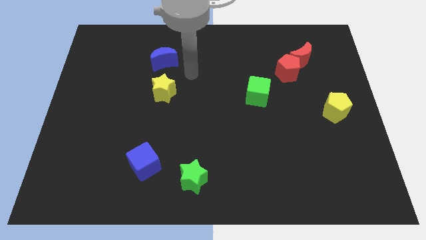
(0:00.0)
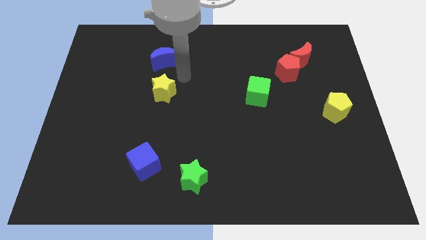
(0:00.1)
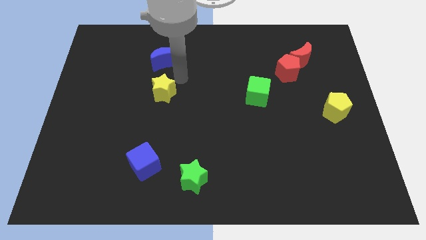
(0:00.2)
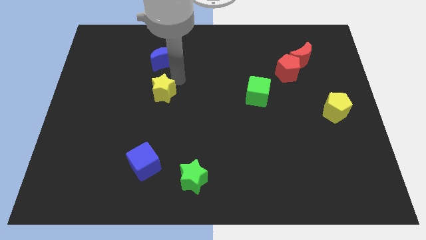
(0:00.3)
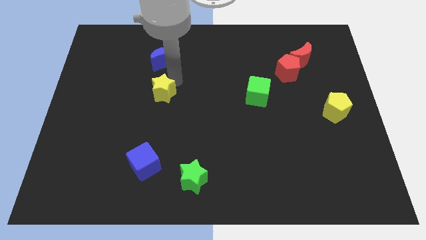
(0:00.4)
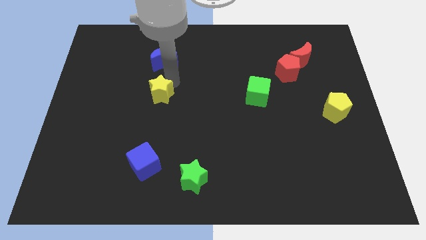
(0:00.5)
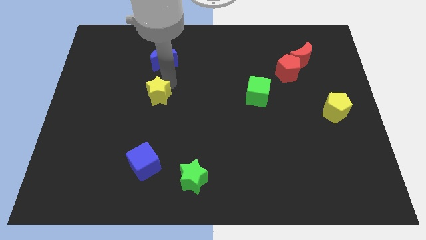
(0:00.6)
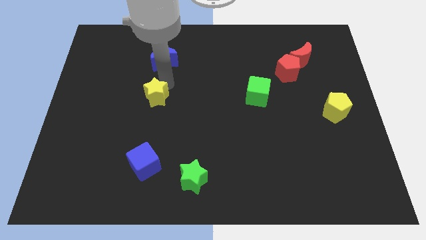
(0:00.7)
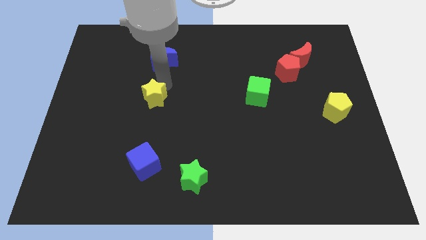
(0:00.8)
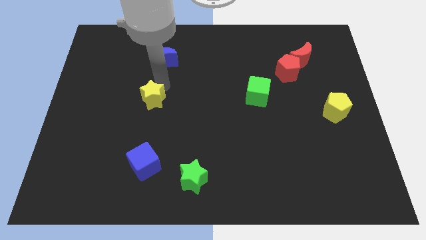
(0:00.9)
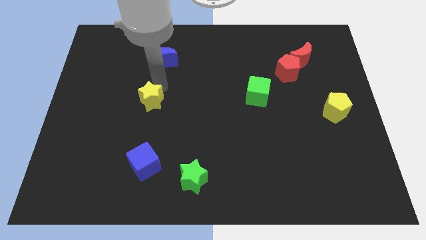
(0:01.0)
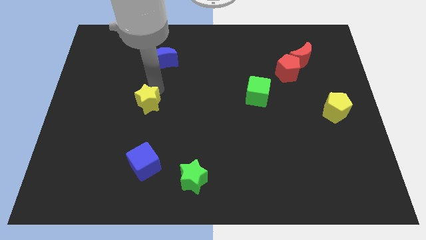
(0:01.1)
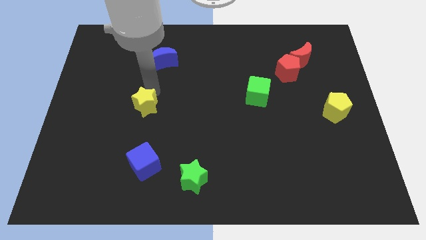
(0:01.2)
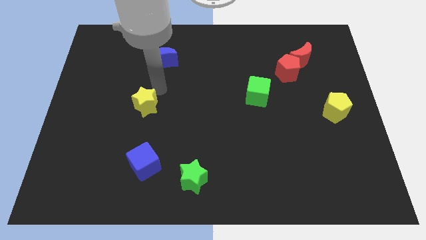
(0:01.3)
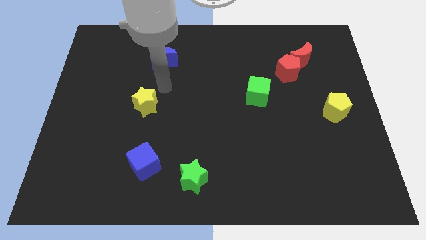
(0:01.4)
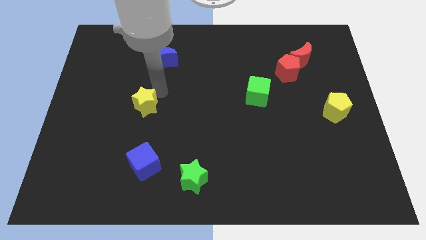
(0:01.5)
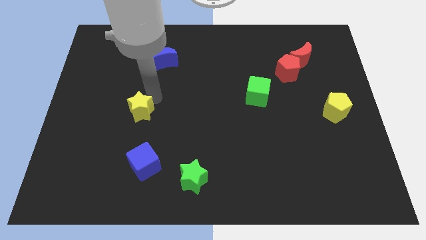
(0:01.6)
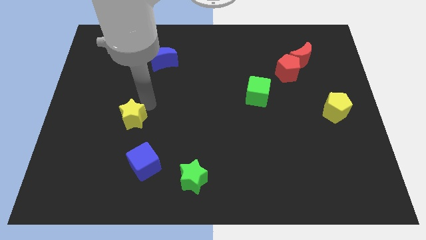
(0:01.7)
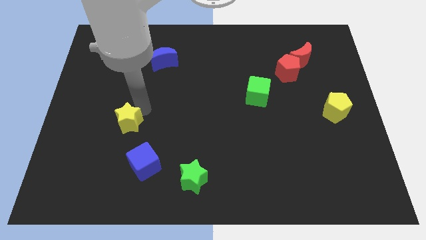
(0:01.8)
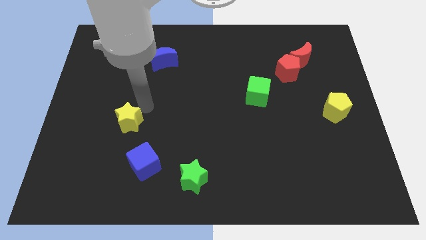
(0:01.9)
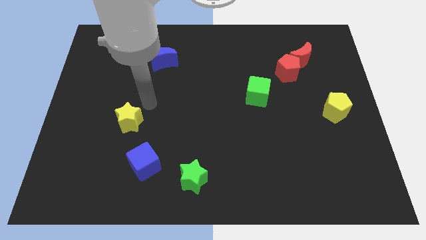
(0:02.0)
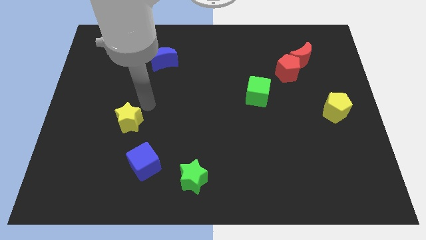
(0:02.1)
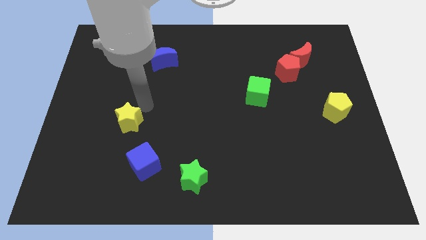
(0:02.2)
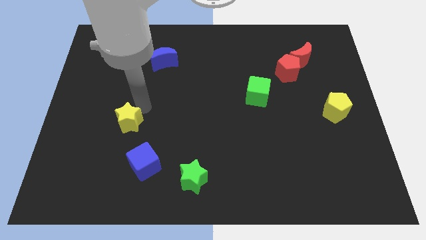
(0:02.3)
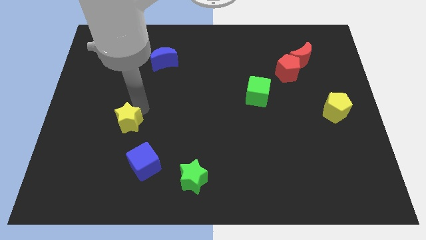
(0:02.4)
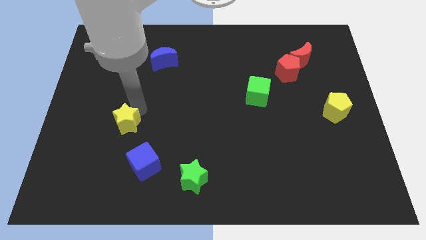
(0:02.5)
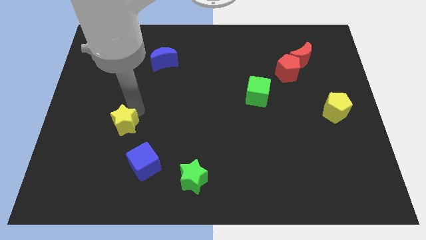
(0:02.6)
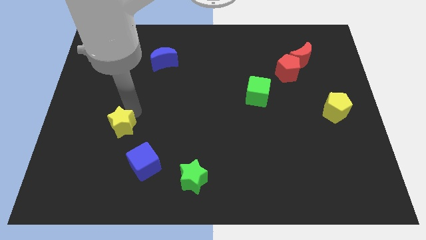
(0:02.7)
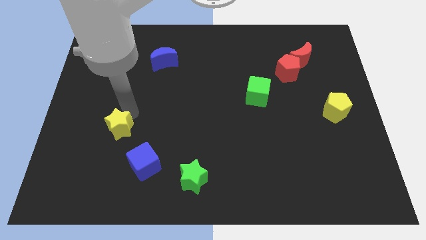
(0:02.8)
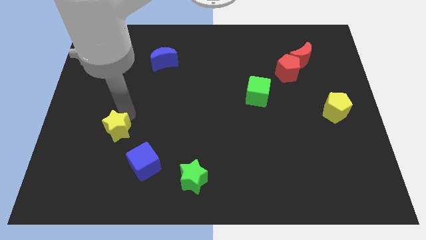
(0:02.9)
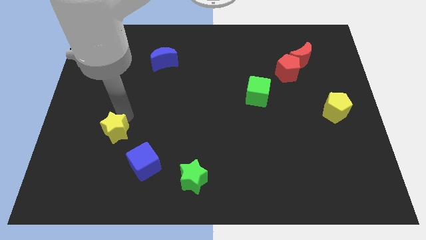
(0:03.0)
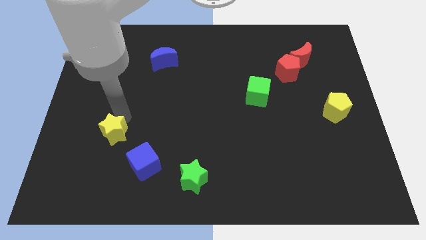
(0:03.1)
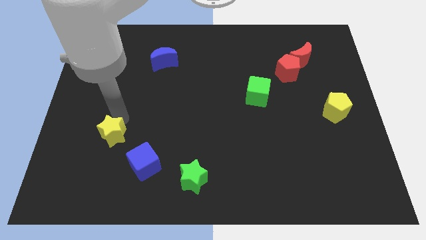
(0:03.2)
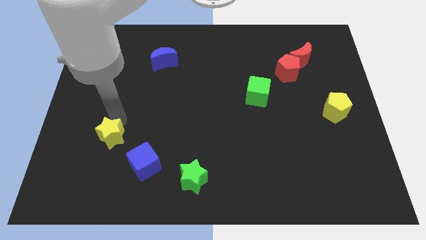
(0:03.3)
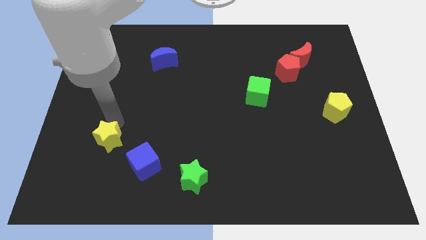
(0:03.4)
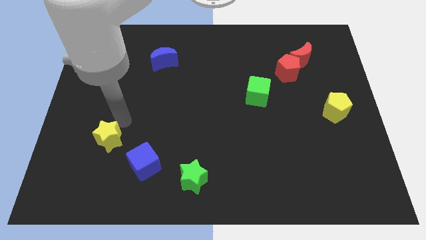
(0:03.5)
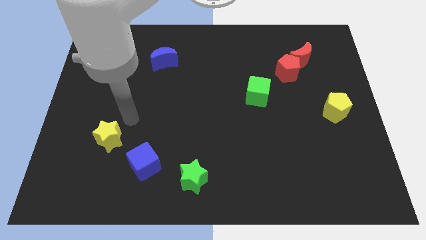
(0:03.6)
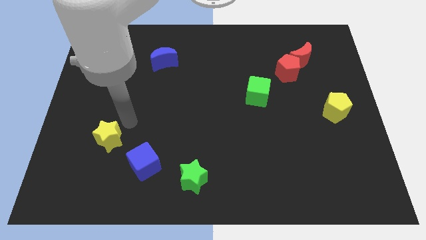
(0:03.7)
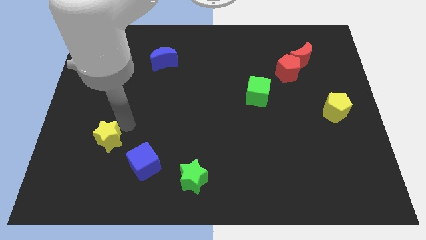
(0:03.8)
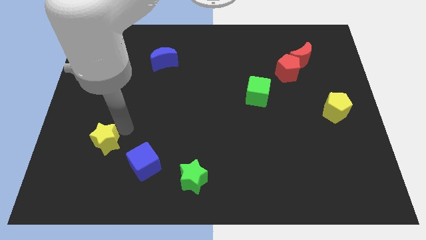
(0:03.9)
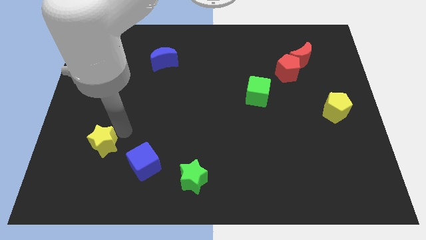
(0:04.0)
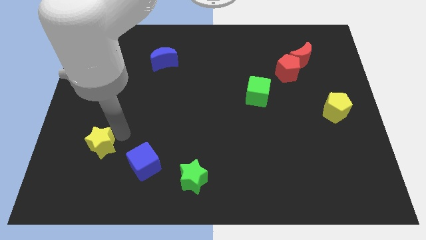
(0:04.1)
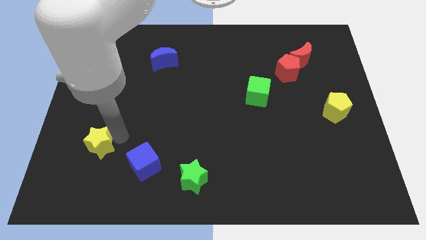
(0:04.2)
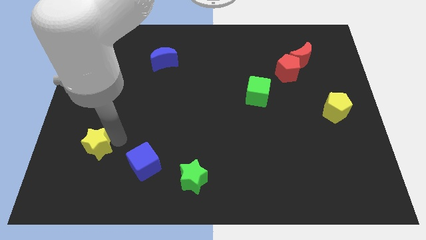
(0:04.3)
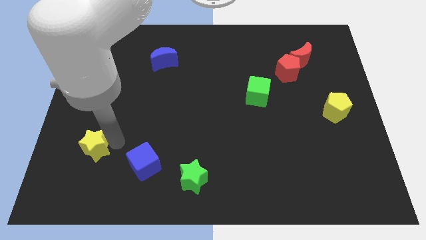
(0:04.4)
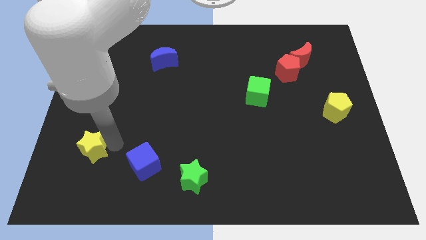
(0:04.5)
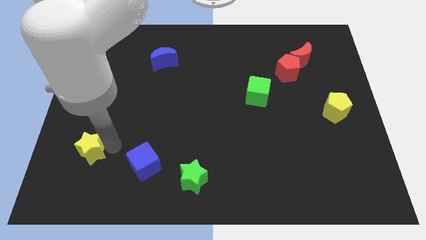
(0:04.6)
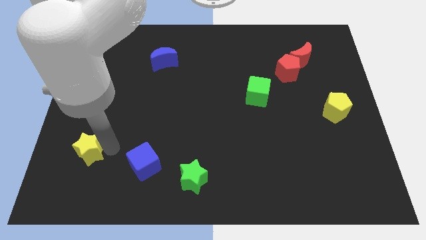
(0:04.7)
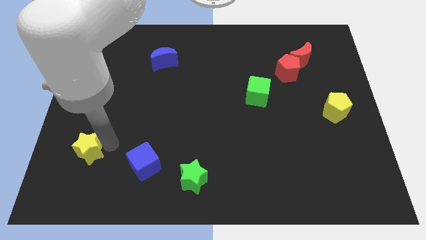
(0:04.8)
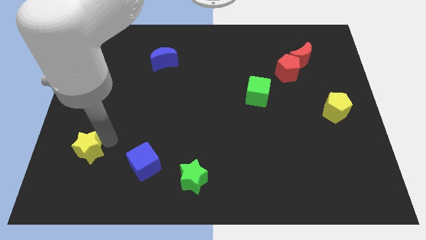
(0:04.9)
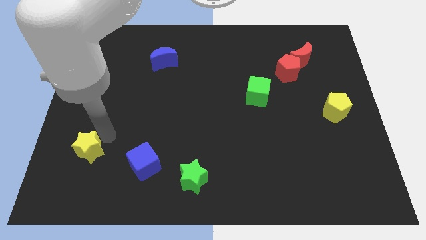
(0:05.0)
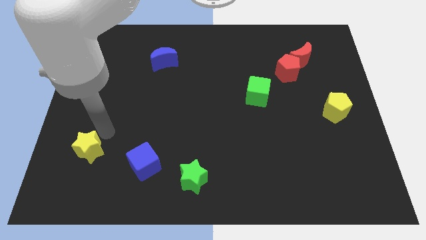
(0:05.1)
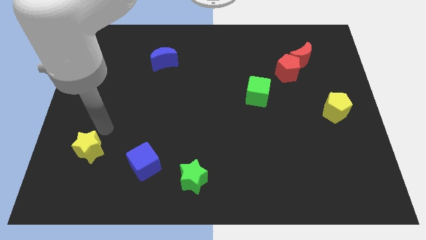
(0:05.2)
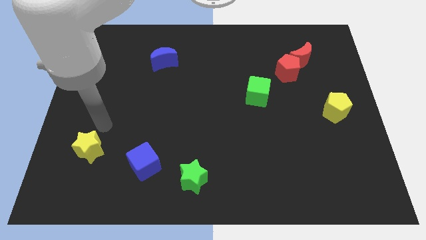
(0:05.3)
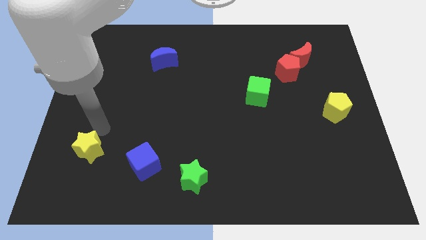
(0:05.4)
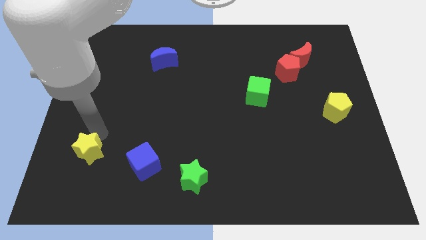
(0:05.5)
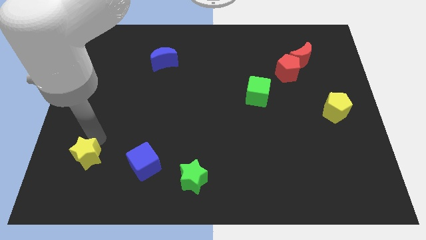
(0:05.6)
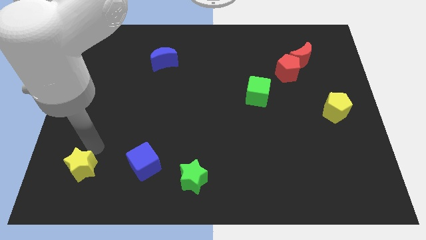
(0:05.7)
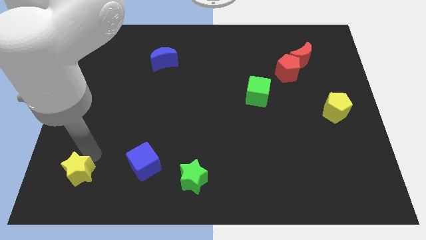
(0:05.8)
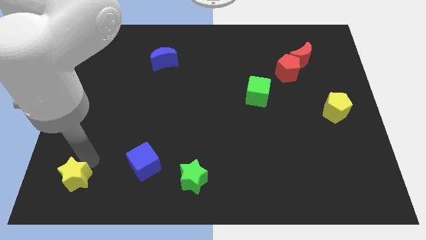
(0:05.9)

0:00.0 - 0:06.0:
slide the yellow star to the bottom left of the board
